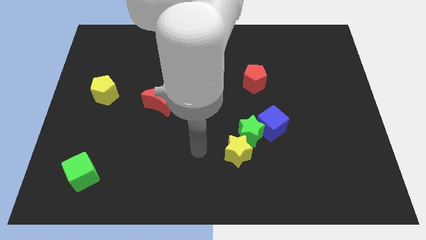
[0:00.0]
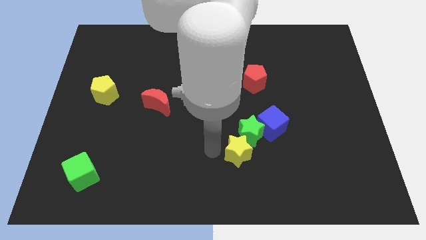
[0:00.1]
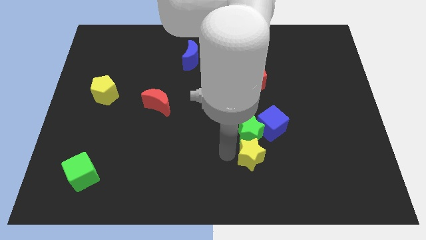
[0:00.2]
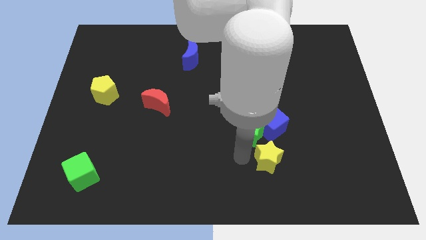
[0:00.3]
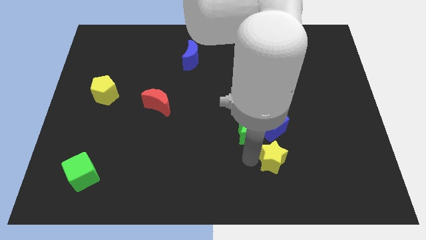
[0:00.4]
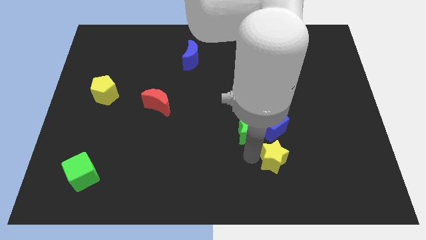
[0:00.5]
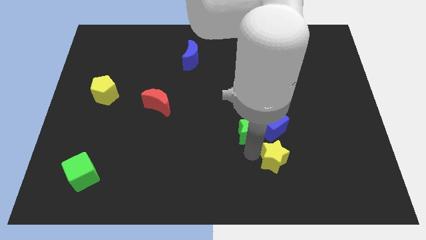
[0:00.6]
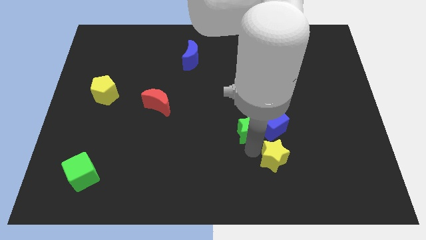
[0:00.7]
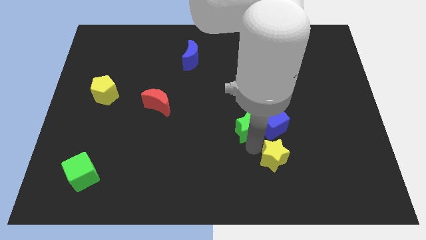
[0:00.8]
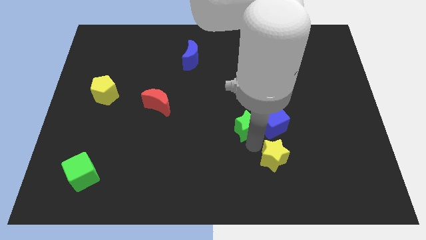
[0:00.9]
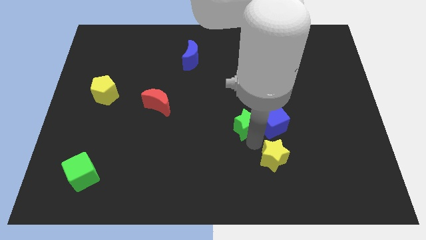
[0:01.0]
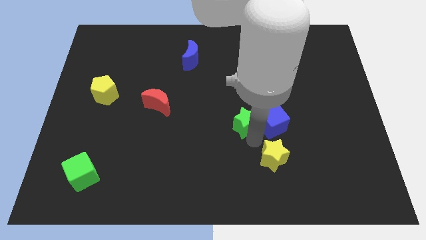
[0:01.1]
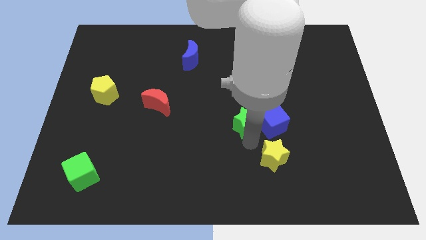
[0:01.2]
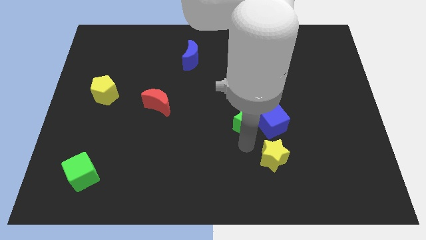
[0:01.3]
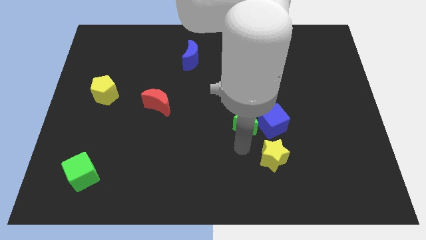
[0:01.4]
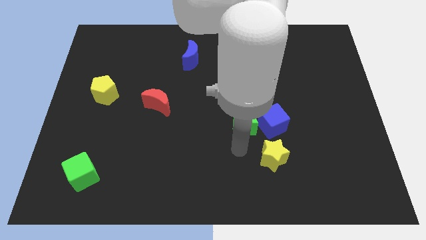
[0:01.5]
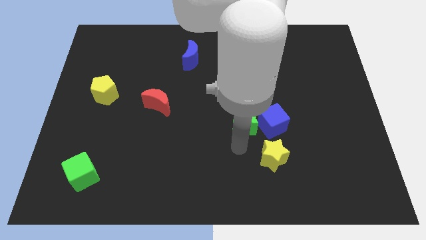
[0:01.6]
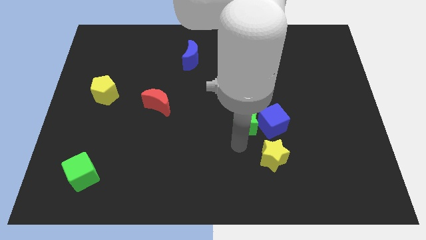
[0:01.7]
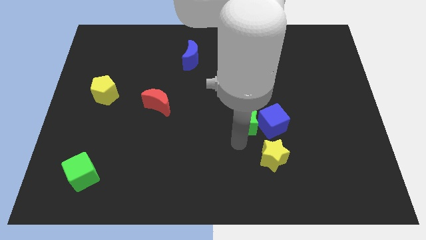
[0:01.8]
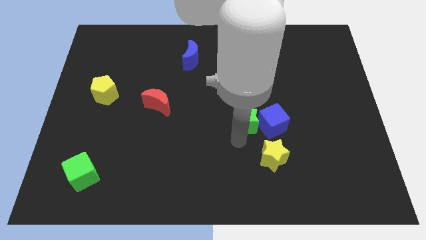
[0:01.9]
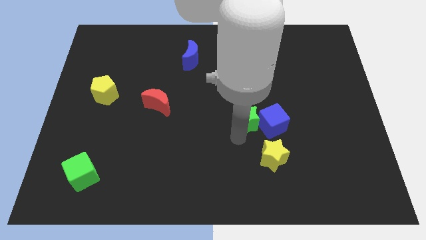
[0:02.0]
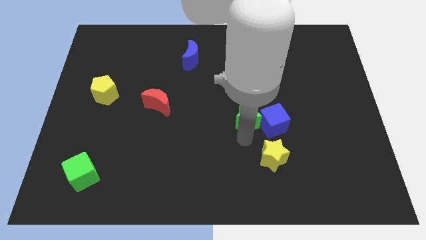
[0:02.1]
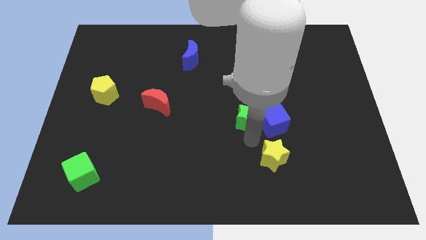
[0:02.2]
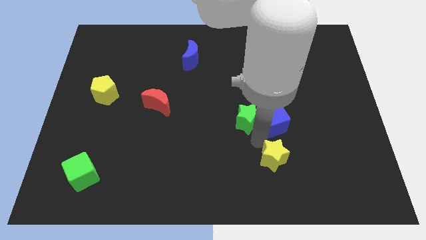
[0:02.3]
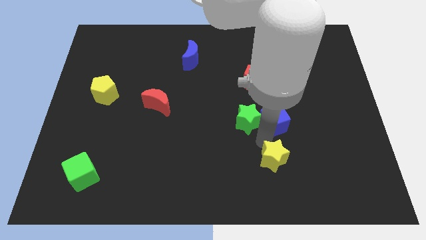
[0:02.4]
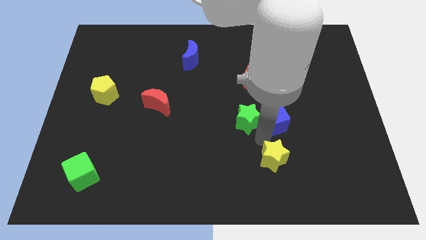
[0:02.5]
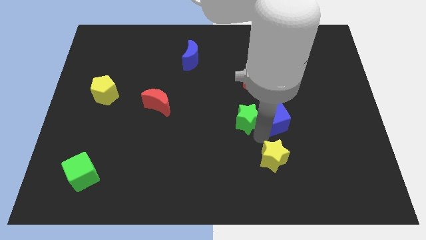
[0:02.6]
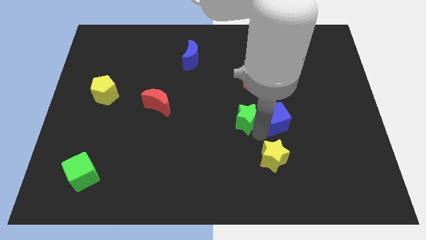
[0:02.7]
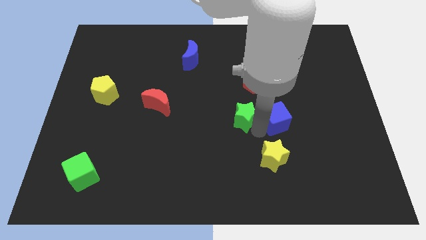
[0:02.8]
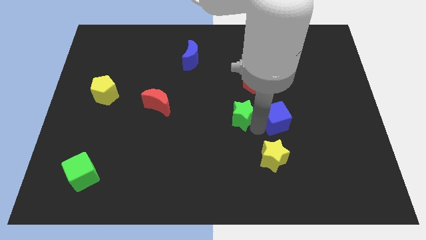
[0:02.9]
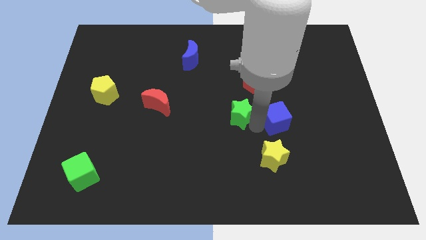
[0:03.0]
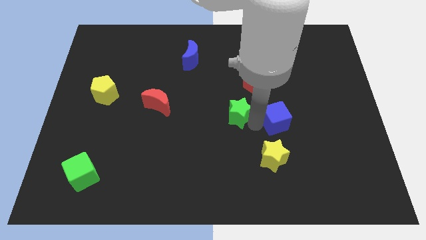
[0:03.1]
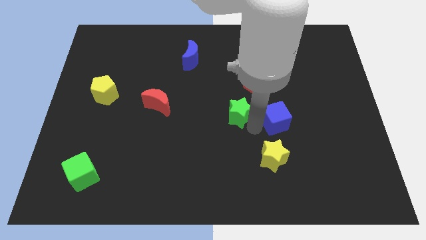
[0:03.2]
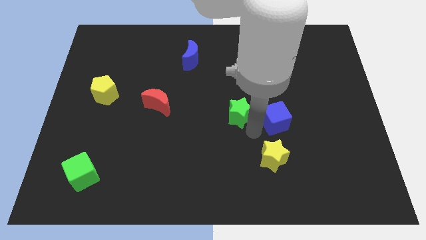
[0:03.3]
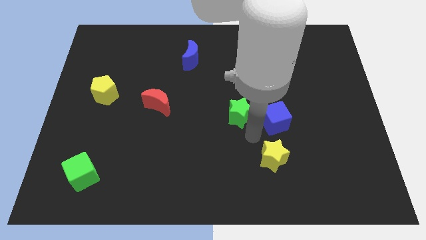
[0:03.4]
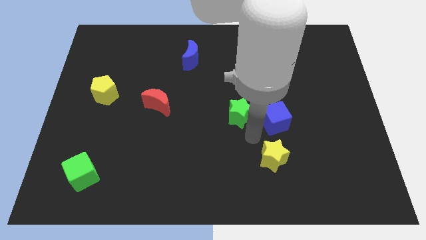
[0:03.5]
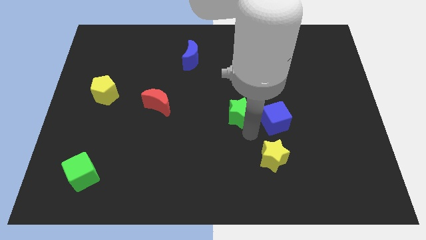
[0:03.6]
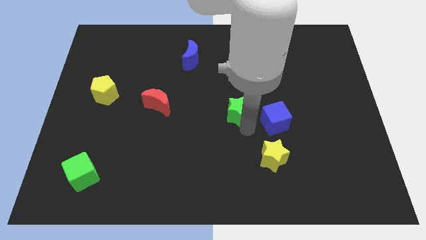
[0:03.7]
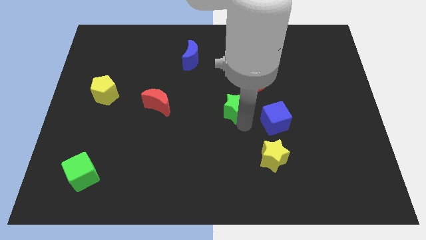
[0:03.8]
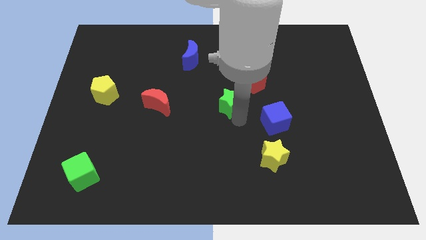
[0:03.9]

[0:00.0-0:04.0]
slightly move the green star upwards

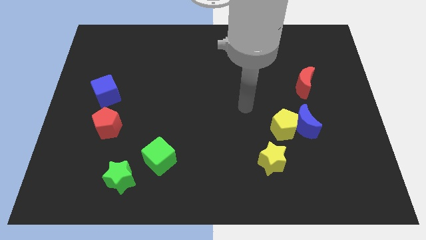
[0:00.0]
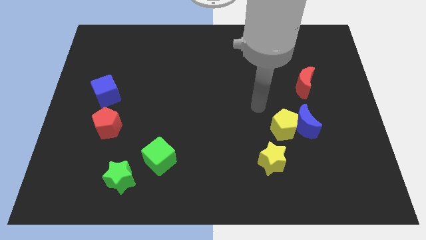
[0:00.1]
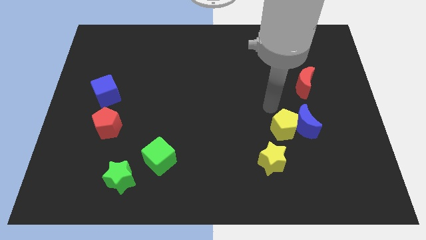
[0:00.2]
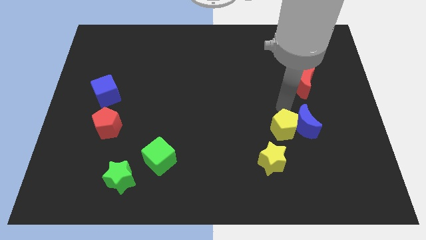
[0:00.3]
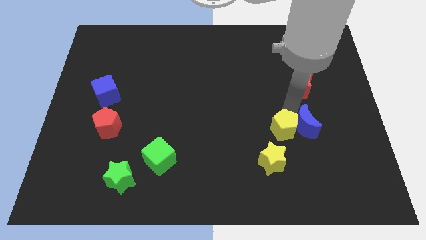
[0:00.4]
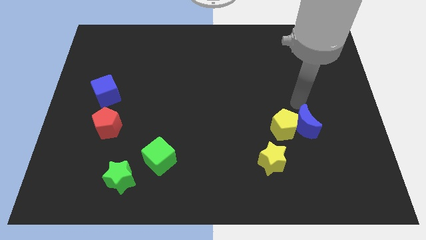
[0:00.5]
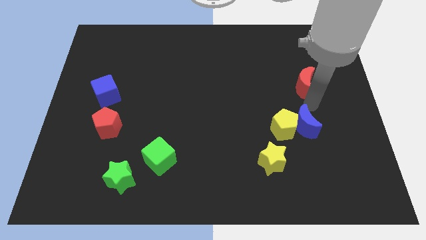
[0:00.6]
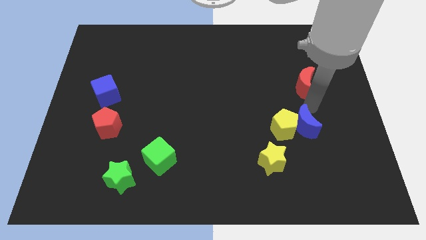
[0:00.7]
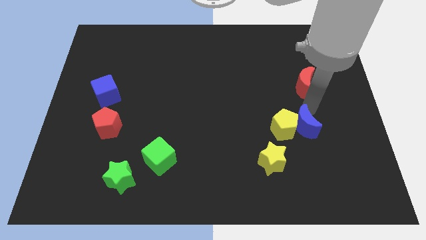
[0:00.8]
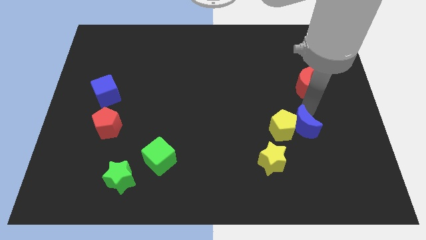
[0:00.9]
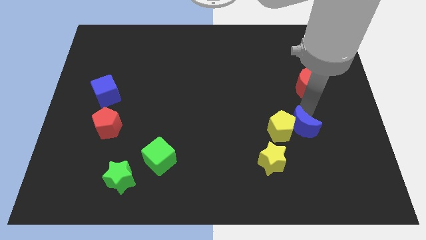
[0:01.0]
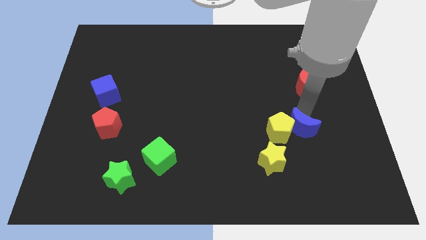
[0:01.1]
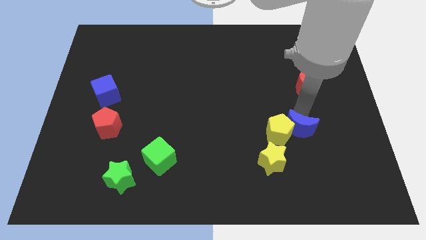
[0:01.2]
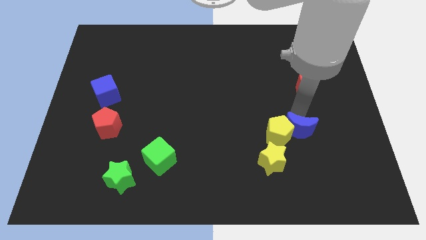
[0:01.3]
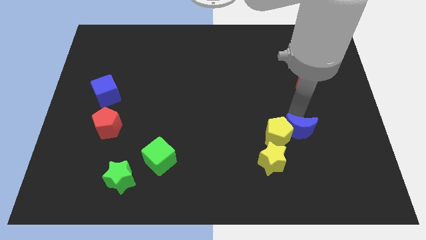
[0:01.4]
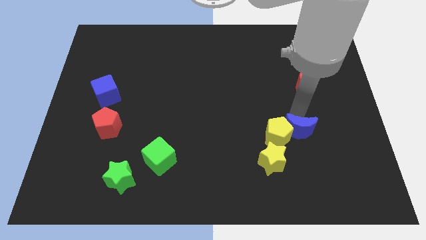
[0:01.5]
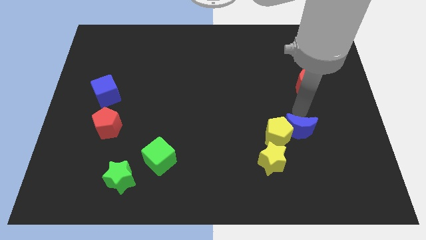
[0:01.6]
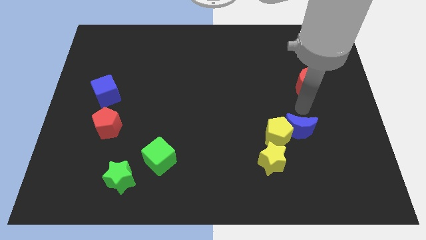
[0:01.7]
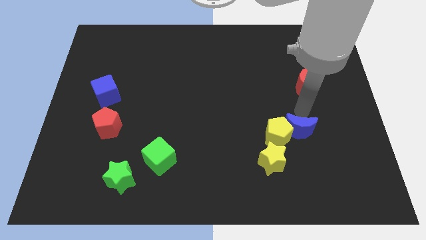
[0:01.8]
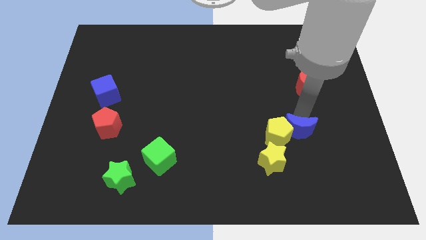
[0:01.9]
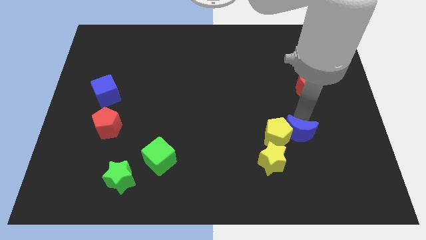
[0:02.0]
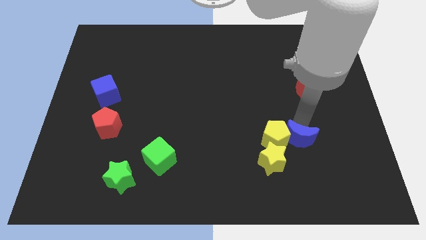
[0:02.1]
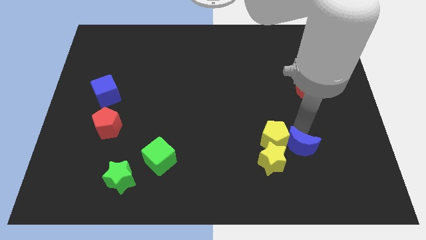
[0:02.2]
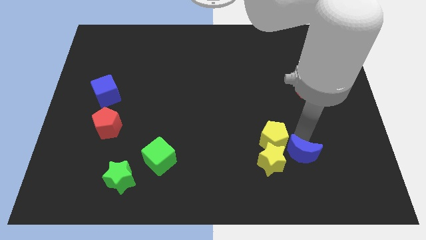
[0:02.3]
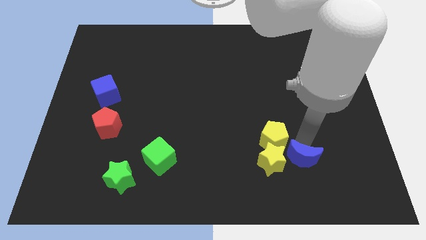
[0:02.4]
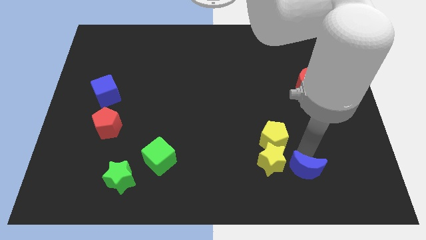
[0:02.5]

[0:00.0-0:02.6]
move the blue moon a bit downwards and left

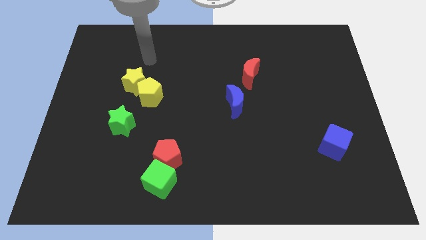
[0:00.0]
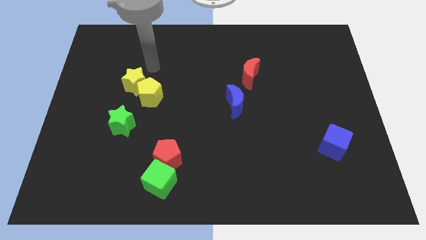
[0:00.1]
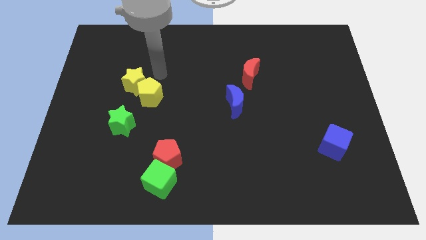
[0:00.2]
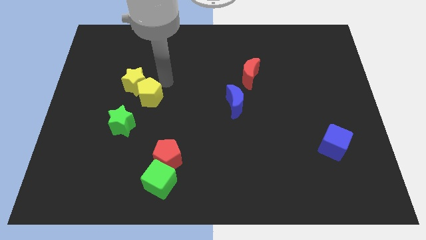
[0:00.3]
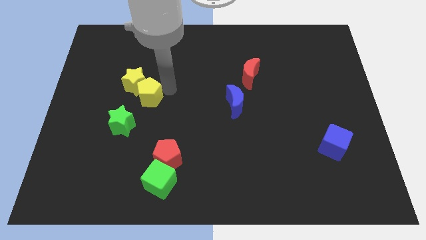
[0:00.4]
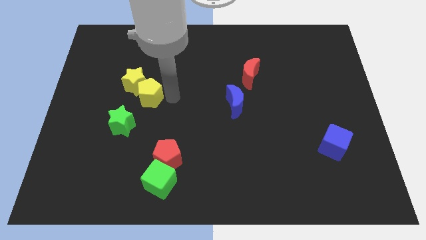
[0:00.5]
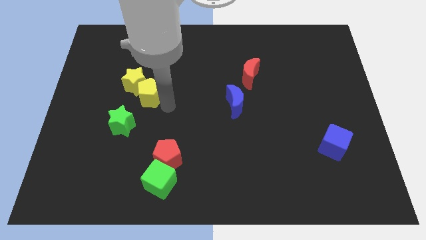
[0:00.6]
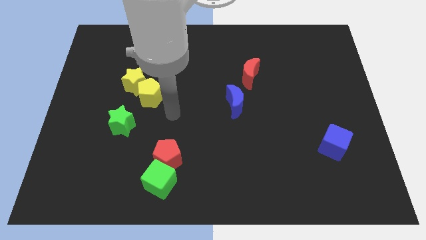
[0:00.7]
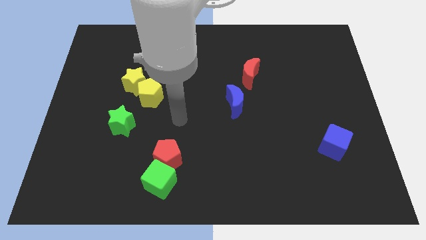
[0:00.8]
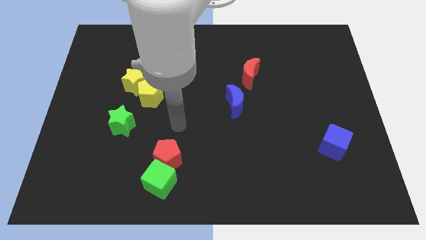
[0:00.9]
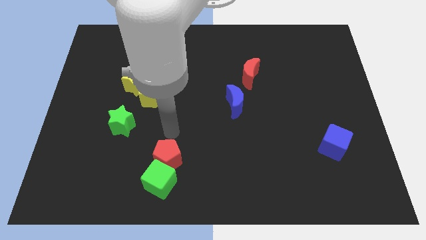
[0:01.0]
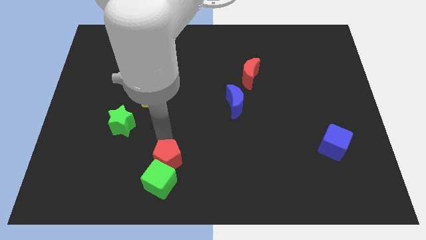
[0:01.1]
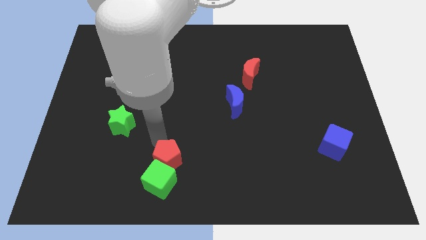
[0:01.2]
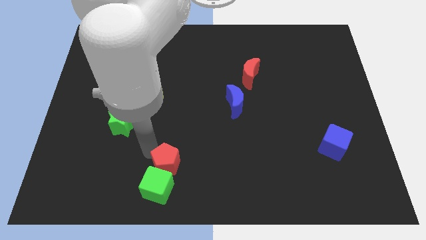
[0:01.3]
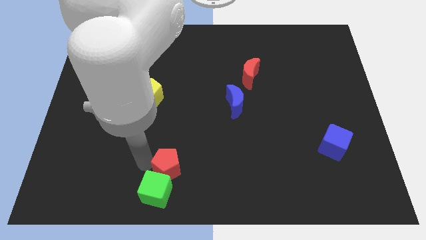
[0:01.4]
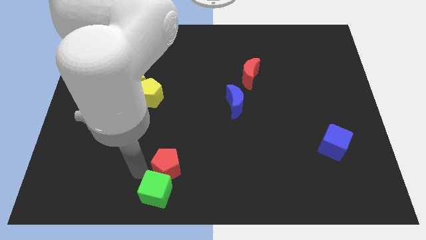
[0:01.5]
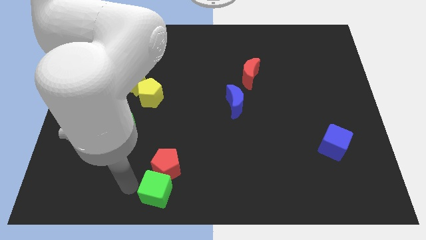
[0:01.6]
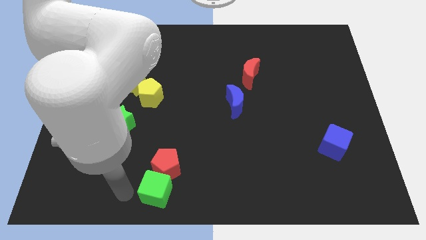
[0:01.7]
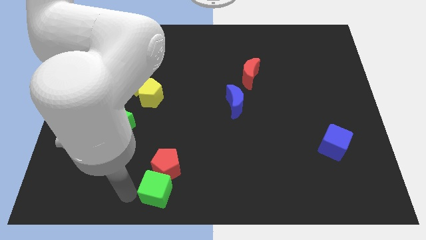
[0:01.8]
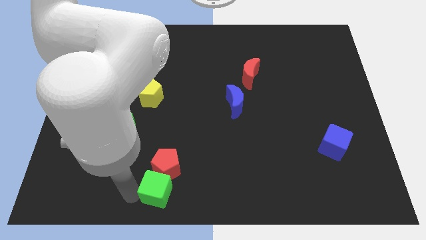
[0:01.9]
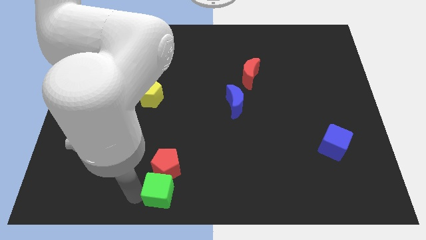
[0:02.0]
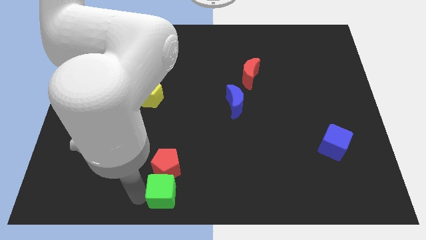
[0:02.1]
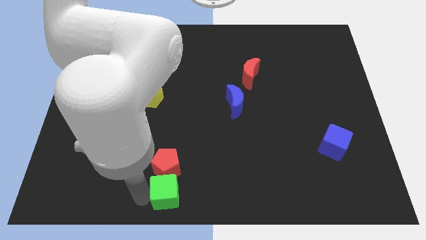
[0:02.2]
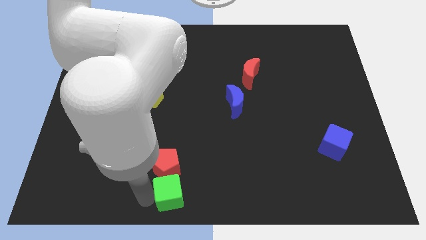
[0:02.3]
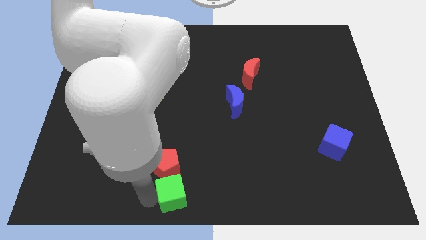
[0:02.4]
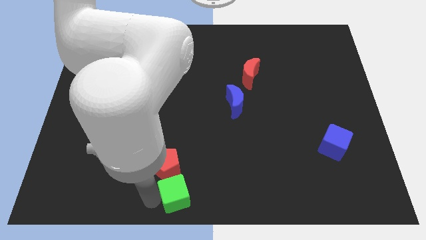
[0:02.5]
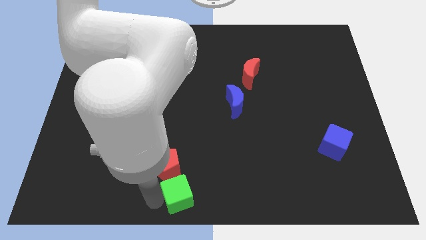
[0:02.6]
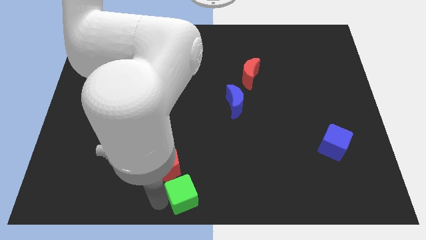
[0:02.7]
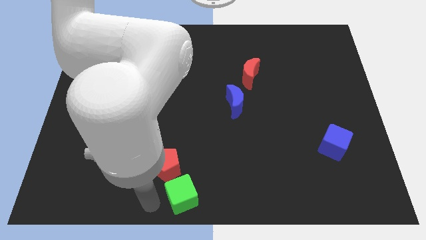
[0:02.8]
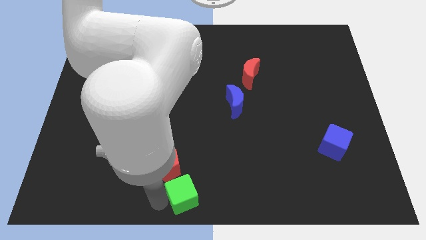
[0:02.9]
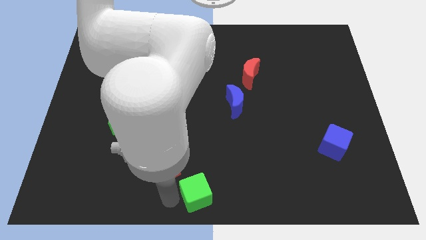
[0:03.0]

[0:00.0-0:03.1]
move the green cube to the right a little
